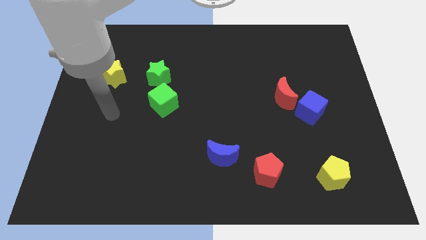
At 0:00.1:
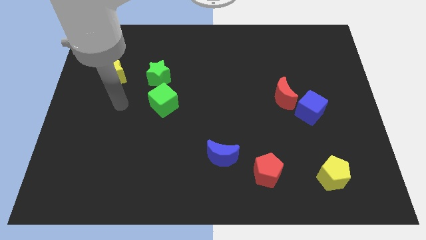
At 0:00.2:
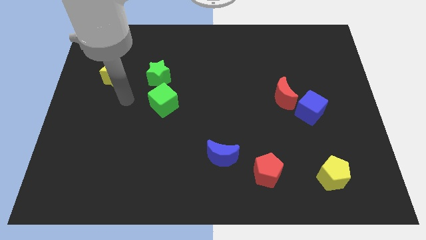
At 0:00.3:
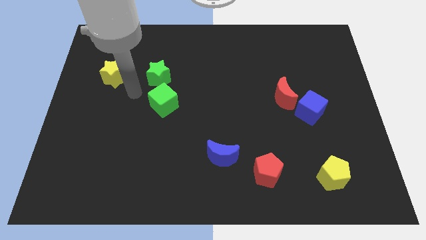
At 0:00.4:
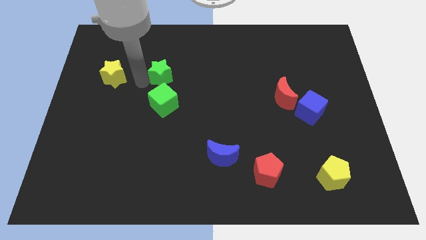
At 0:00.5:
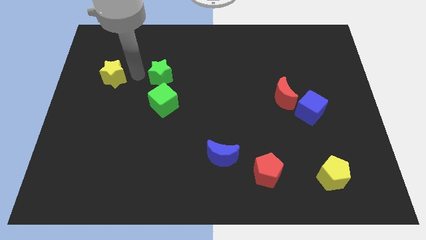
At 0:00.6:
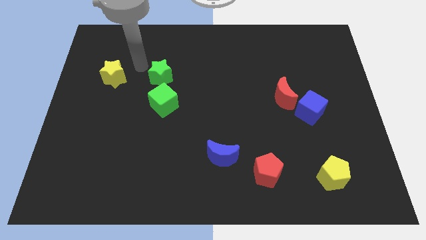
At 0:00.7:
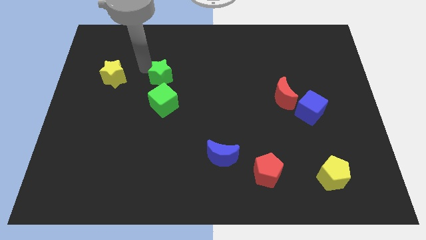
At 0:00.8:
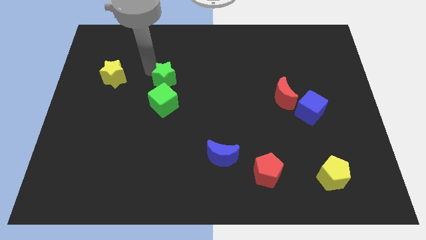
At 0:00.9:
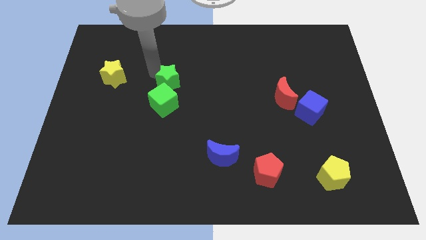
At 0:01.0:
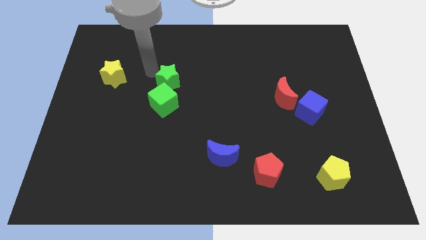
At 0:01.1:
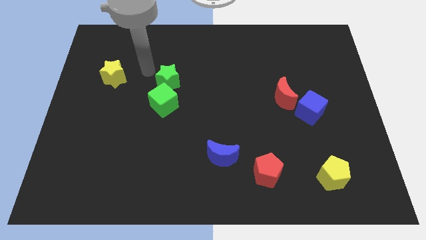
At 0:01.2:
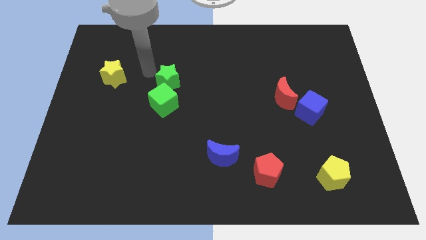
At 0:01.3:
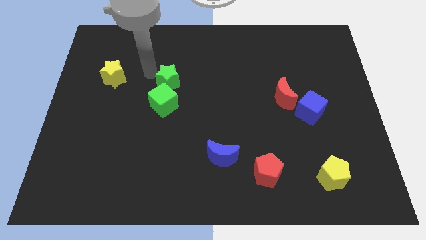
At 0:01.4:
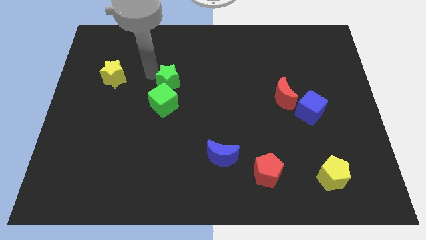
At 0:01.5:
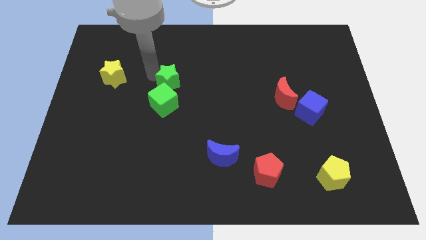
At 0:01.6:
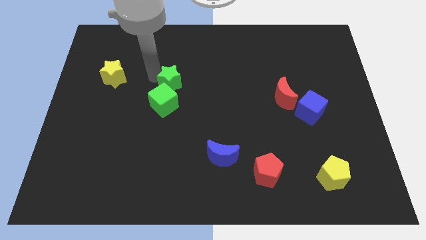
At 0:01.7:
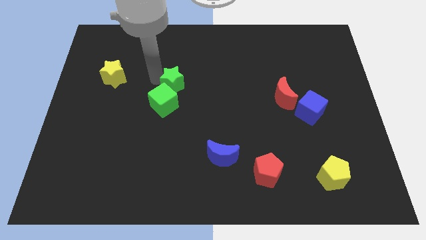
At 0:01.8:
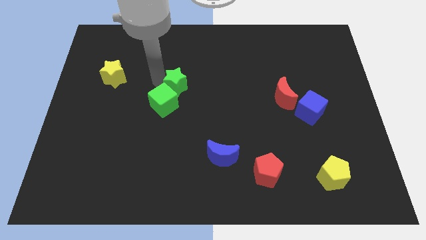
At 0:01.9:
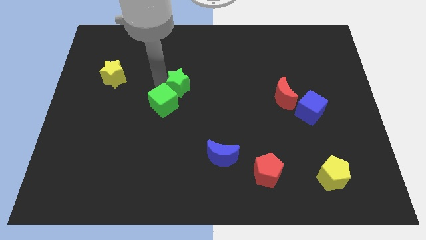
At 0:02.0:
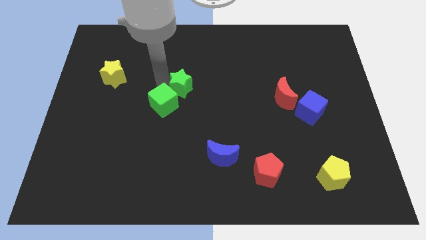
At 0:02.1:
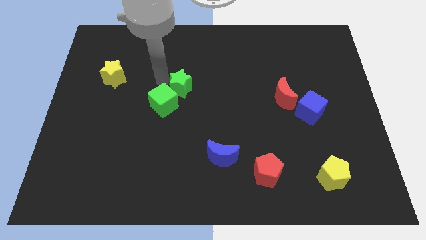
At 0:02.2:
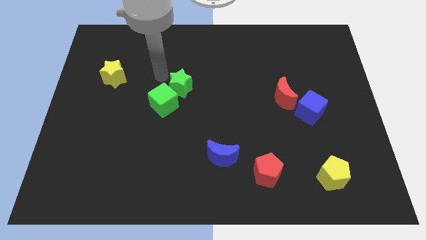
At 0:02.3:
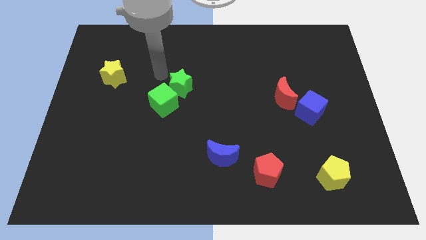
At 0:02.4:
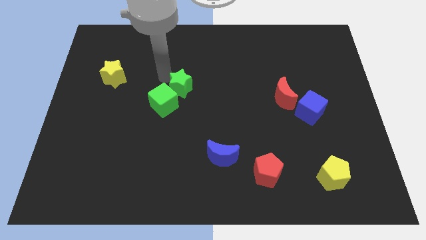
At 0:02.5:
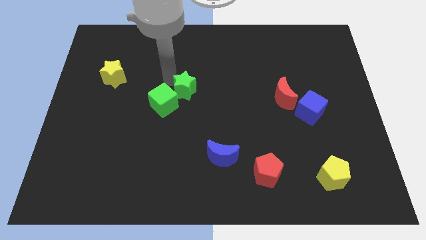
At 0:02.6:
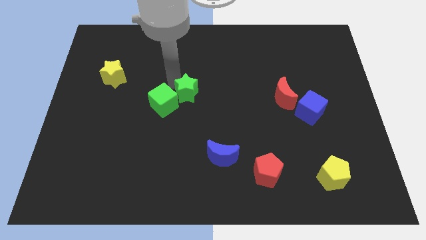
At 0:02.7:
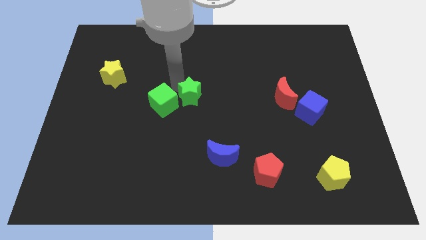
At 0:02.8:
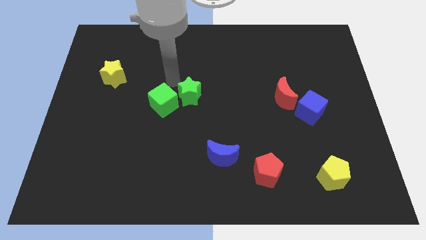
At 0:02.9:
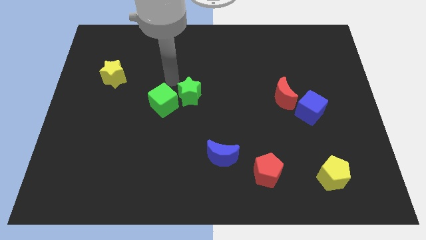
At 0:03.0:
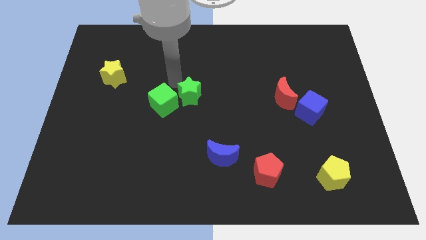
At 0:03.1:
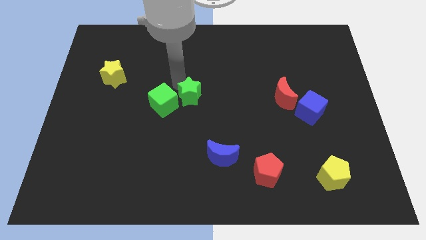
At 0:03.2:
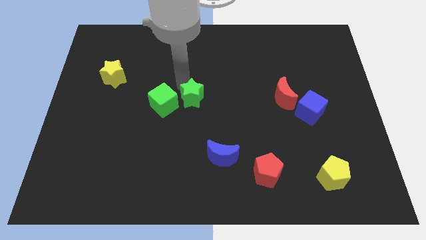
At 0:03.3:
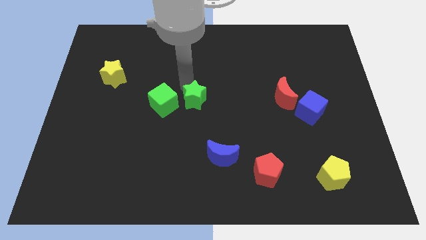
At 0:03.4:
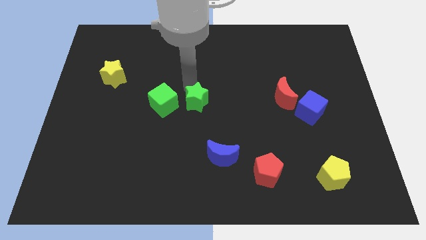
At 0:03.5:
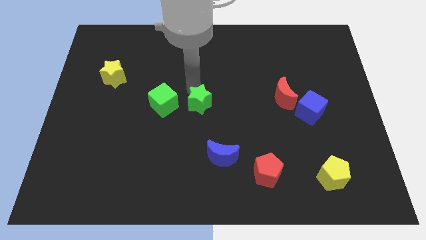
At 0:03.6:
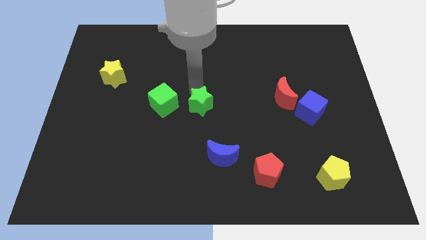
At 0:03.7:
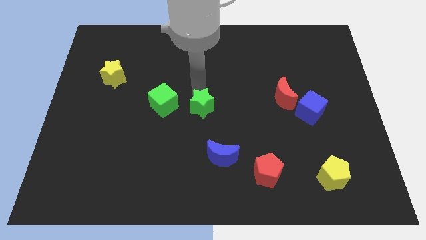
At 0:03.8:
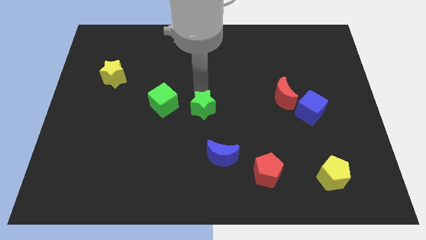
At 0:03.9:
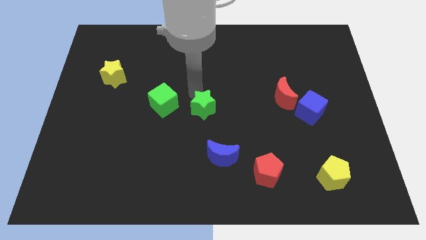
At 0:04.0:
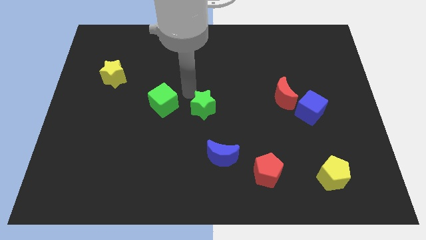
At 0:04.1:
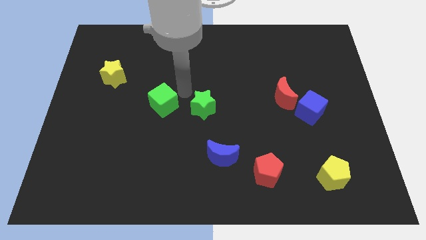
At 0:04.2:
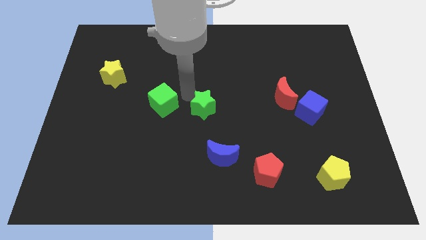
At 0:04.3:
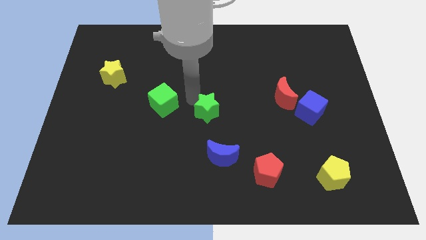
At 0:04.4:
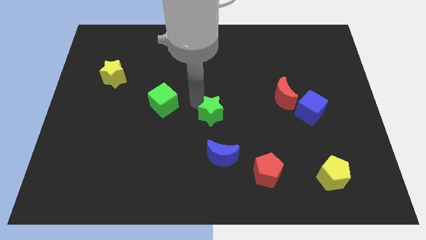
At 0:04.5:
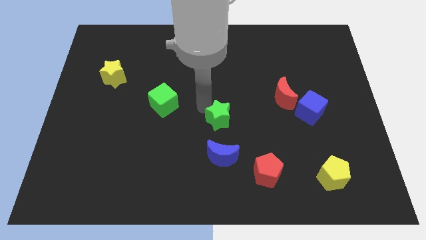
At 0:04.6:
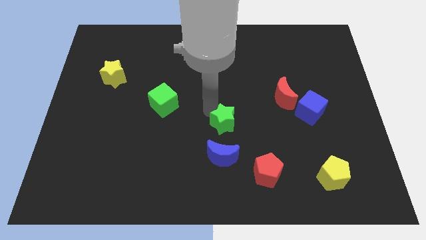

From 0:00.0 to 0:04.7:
slide the green star diagonally downwards and to the right

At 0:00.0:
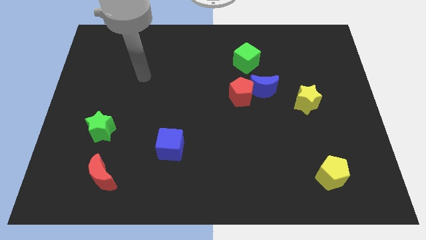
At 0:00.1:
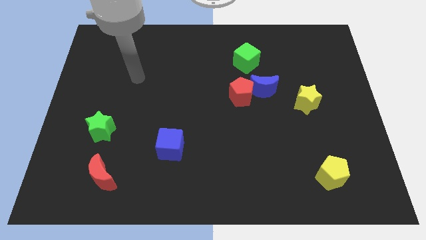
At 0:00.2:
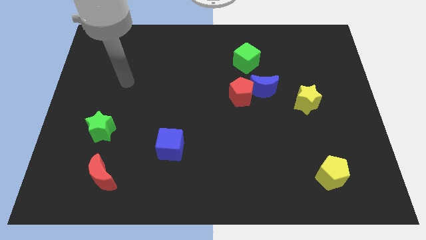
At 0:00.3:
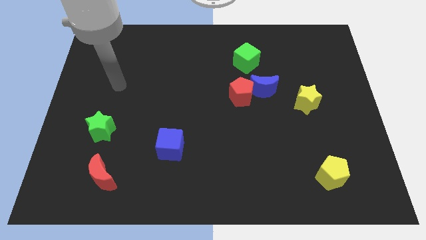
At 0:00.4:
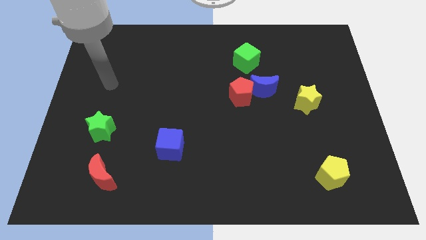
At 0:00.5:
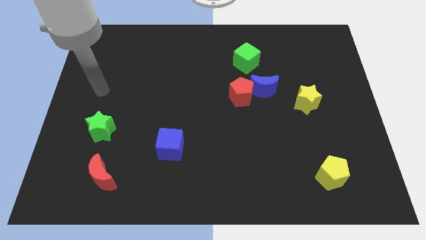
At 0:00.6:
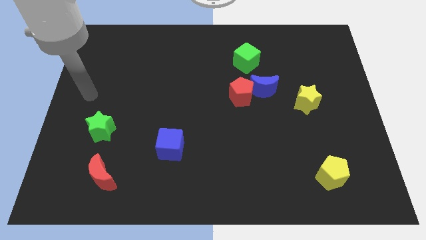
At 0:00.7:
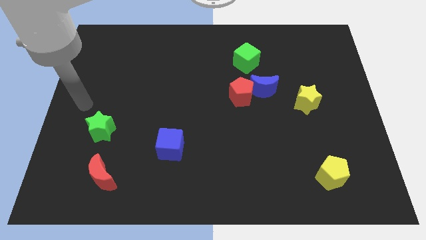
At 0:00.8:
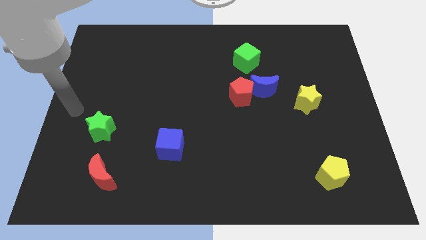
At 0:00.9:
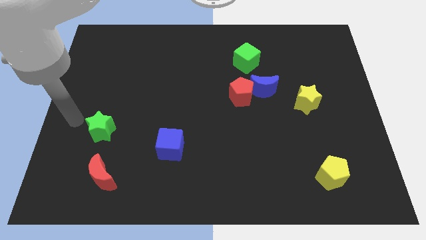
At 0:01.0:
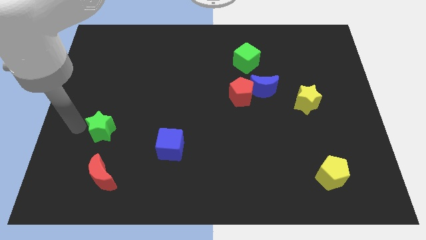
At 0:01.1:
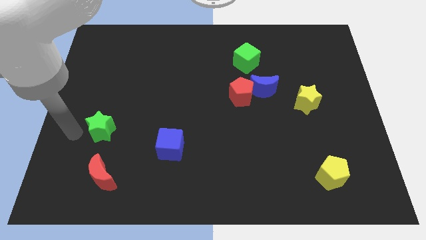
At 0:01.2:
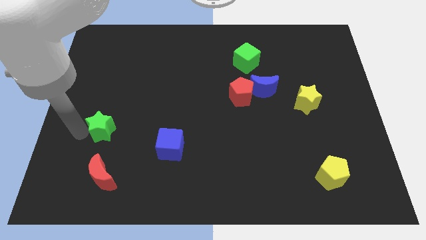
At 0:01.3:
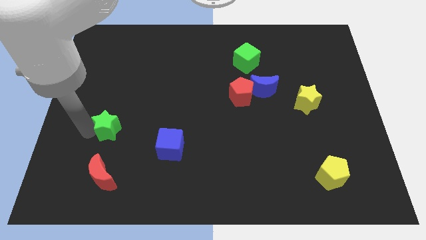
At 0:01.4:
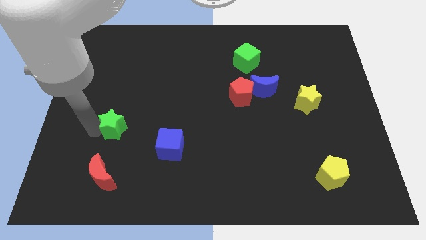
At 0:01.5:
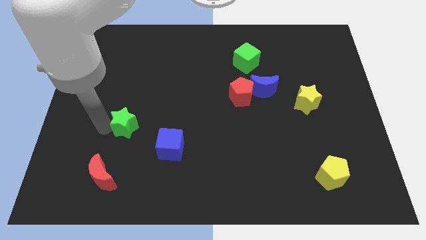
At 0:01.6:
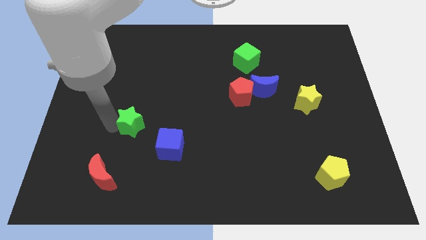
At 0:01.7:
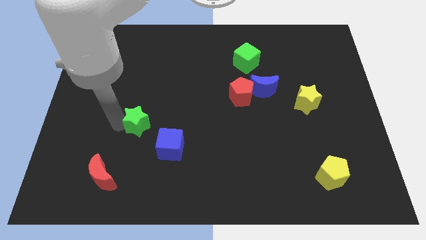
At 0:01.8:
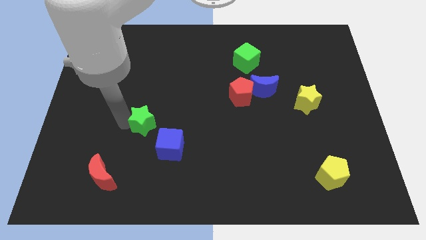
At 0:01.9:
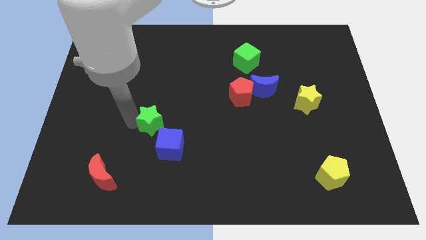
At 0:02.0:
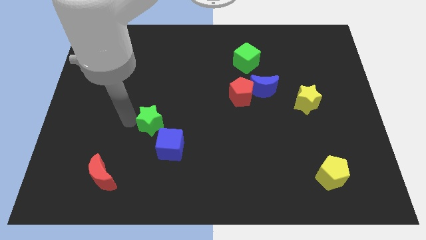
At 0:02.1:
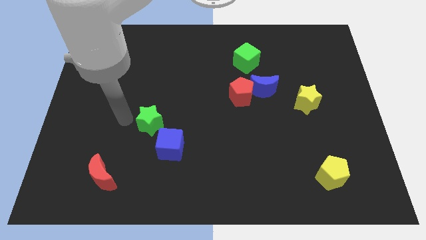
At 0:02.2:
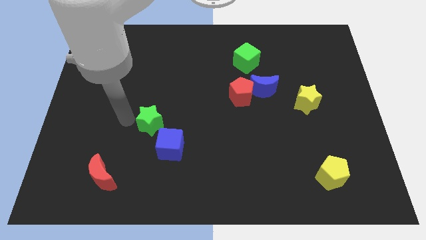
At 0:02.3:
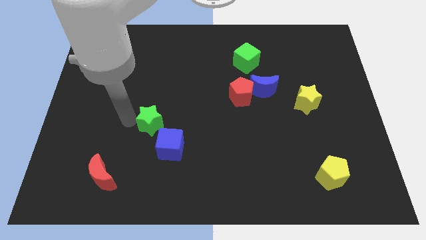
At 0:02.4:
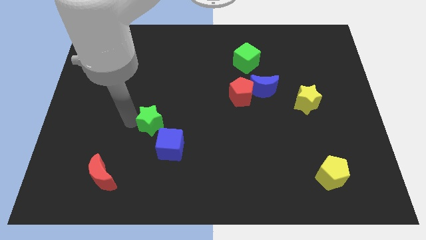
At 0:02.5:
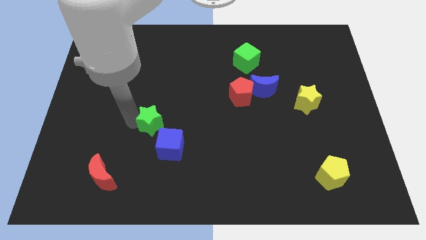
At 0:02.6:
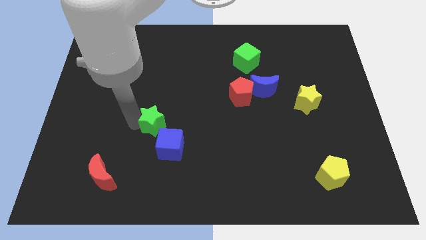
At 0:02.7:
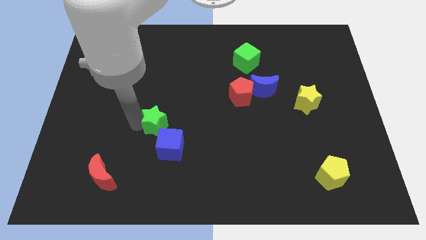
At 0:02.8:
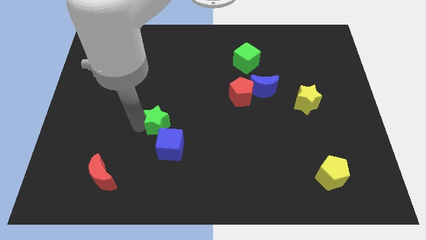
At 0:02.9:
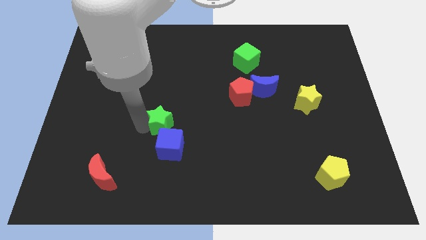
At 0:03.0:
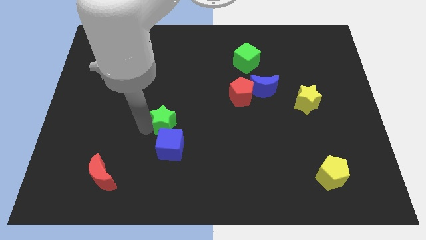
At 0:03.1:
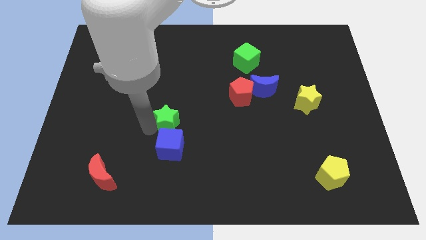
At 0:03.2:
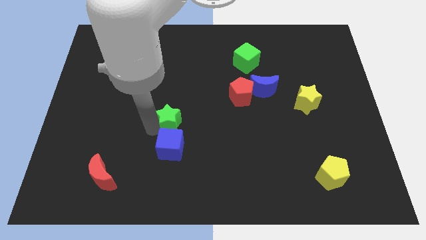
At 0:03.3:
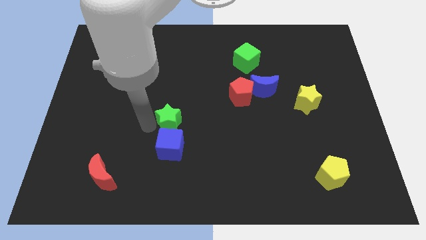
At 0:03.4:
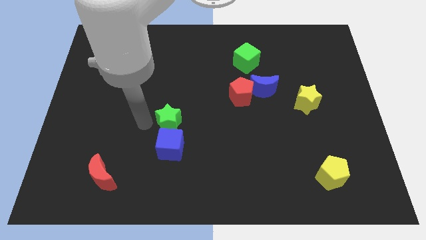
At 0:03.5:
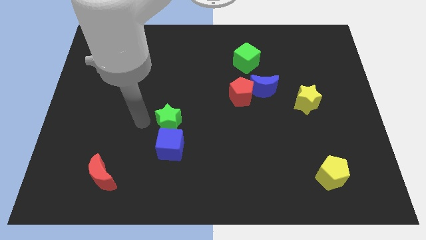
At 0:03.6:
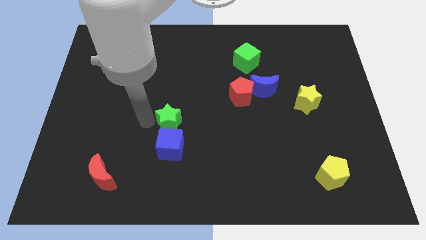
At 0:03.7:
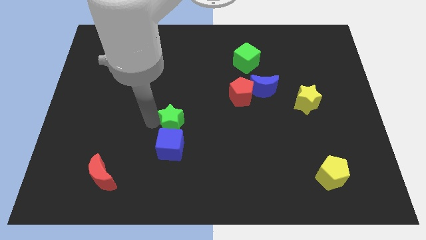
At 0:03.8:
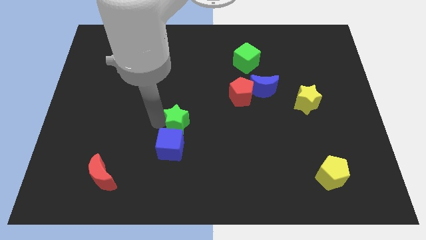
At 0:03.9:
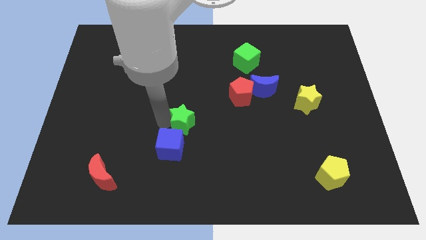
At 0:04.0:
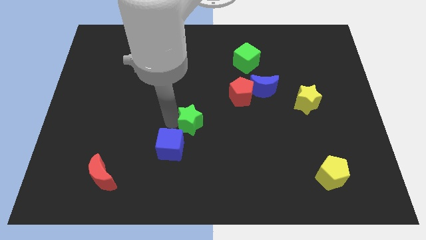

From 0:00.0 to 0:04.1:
push the green star right
